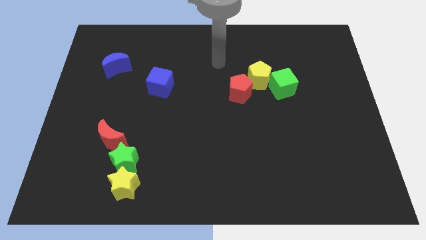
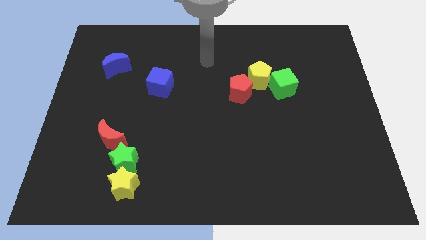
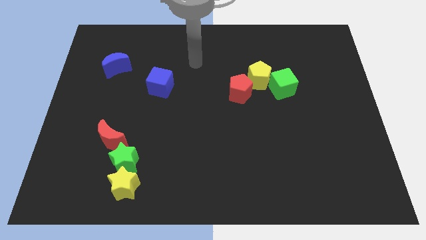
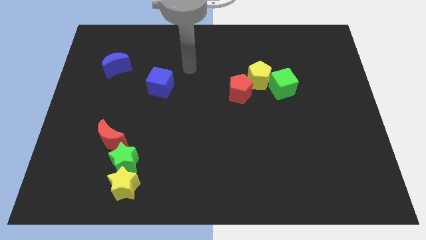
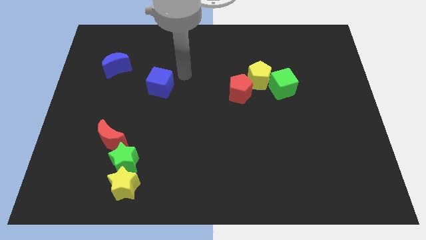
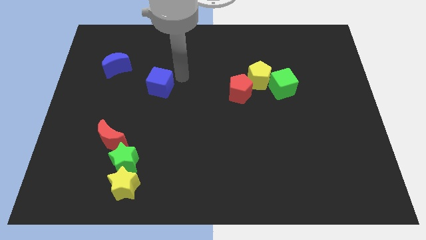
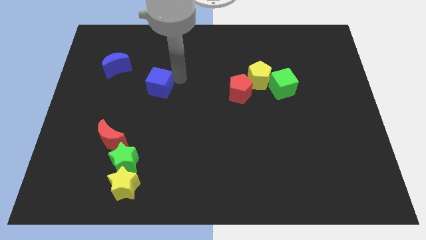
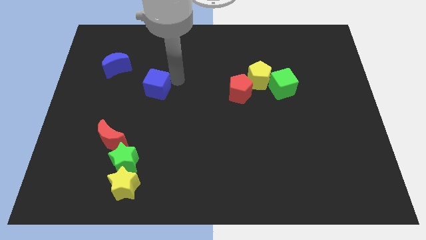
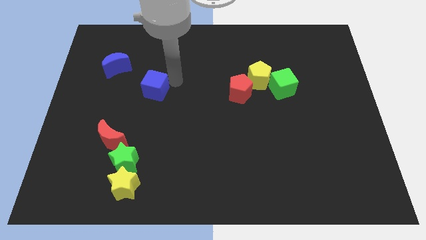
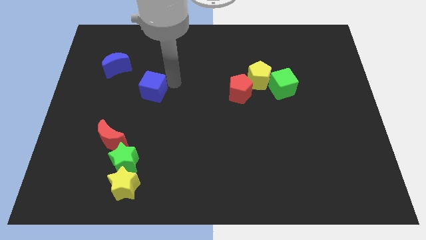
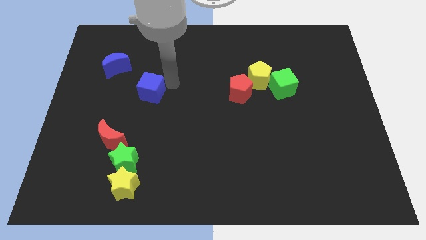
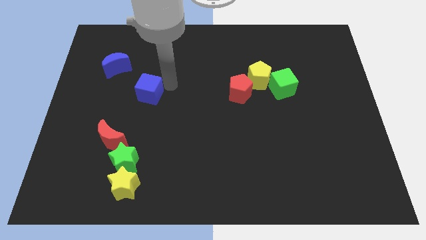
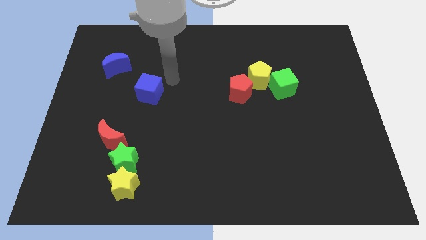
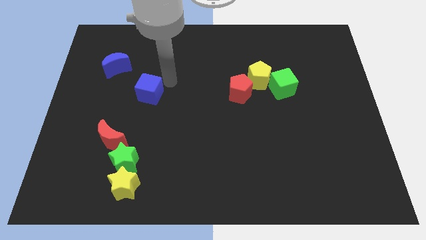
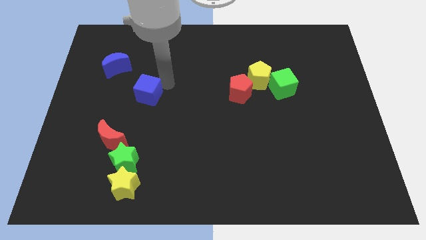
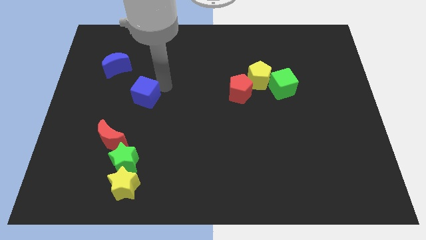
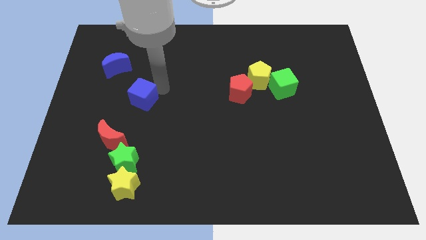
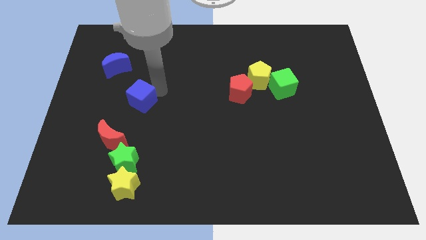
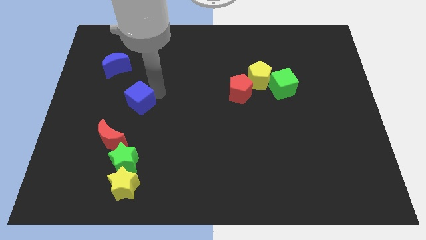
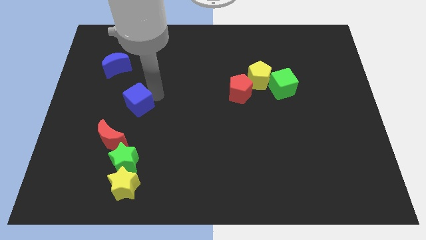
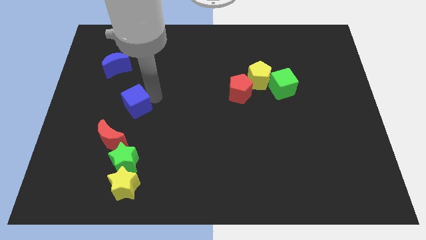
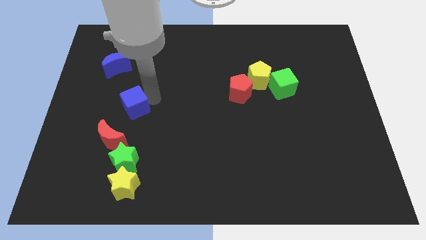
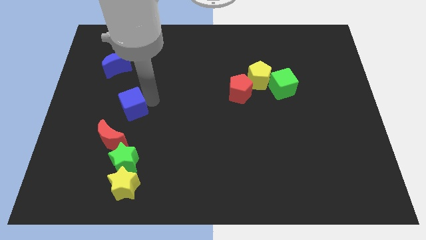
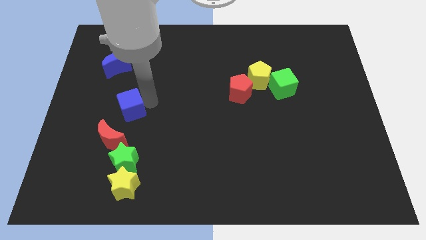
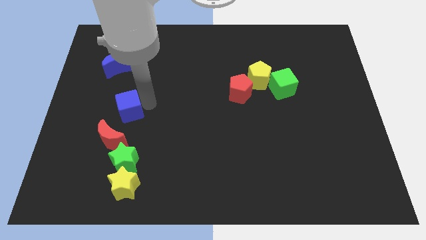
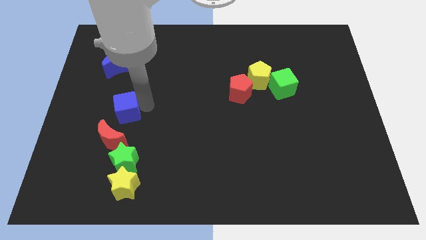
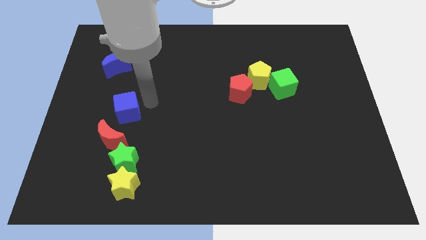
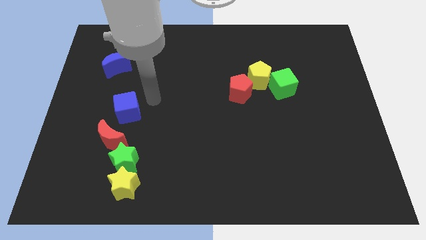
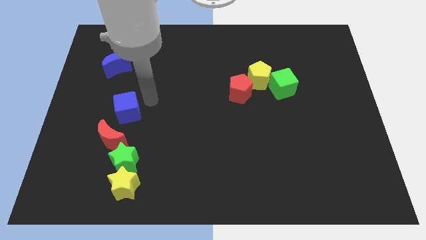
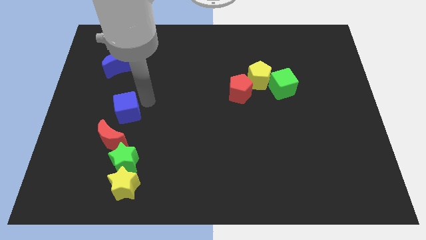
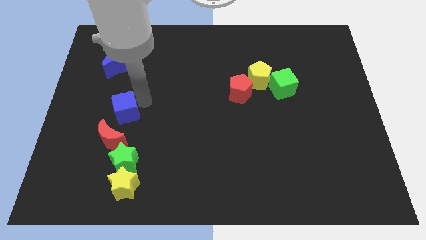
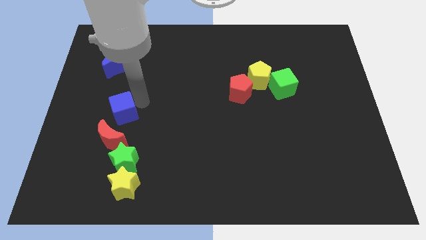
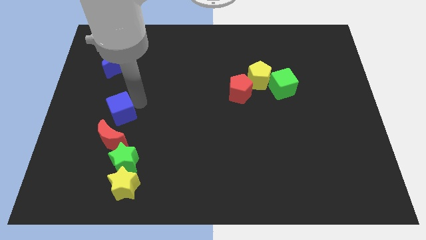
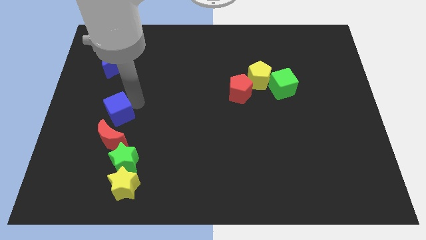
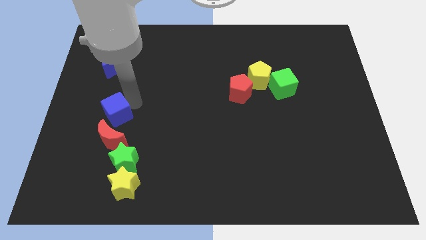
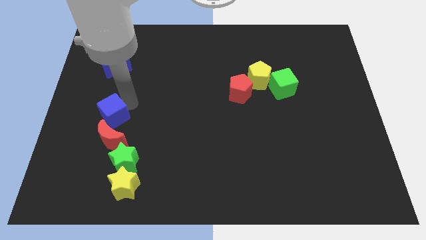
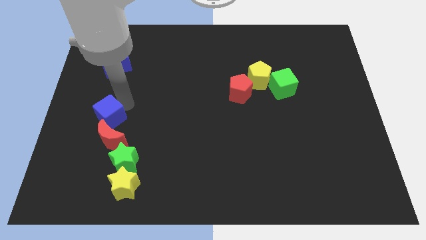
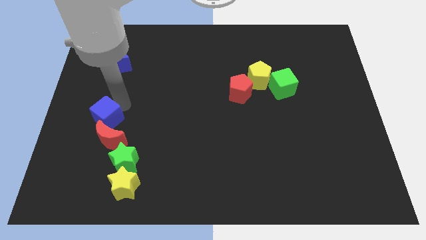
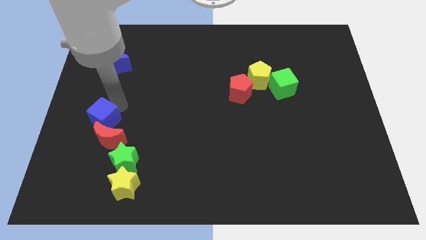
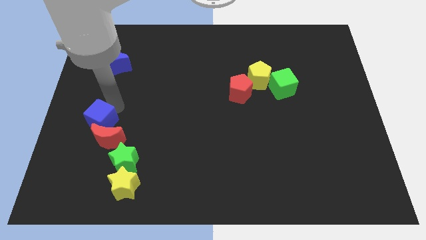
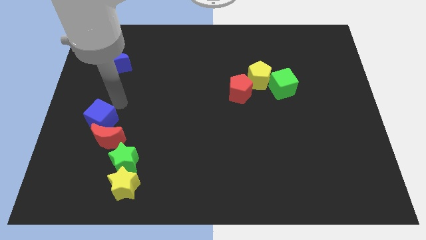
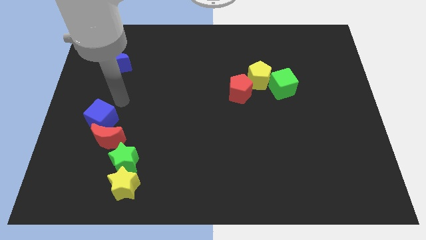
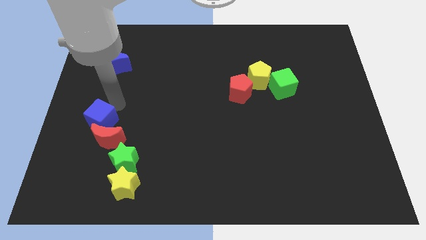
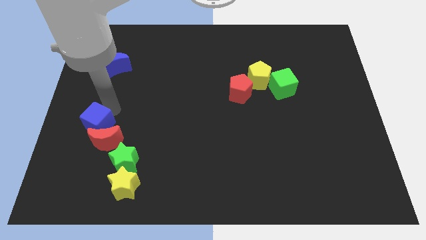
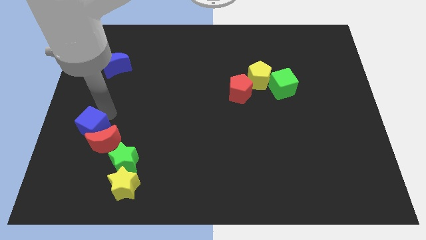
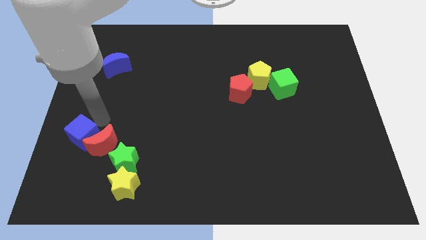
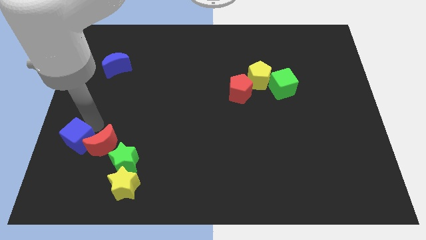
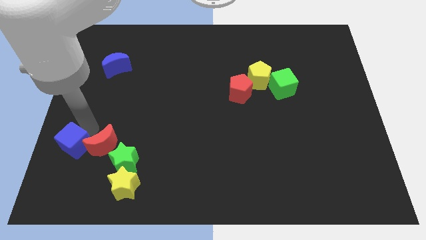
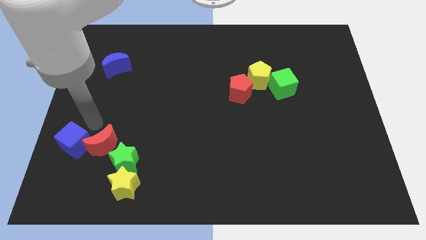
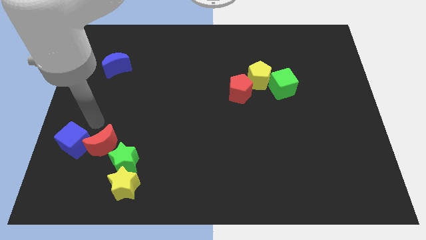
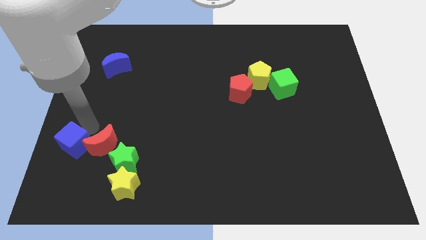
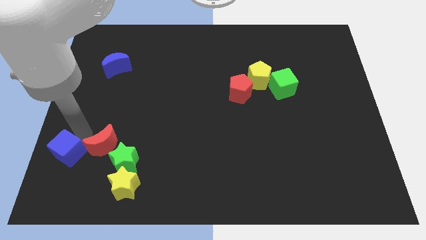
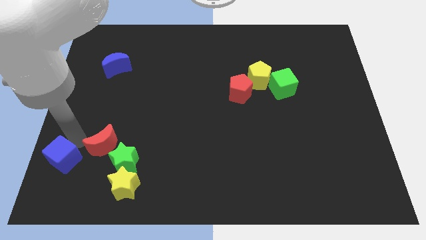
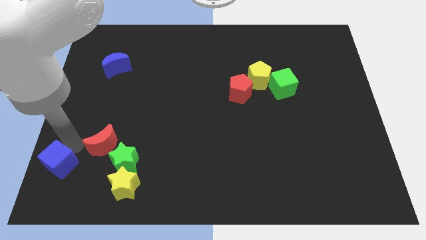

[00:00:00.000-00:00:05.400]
move the blue cube to the lower left corner

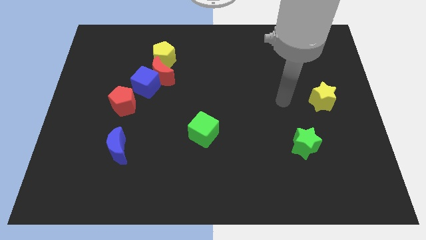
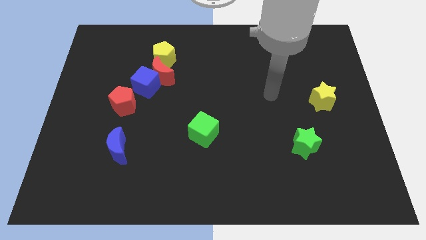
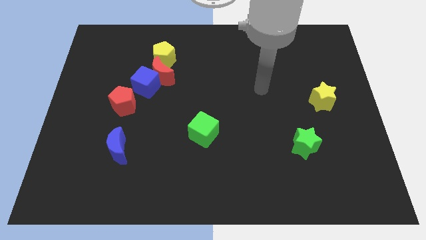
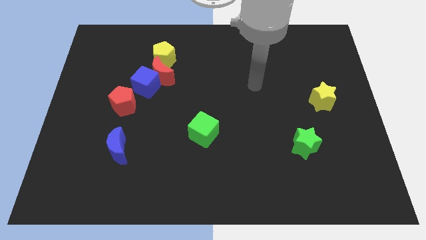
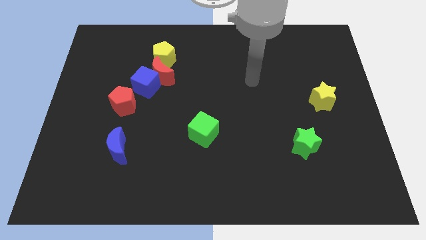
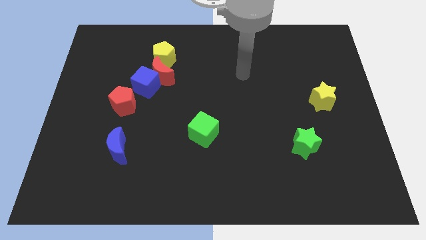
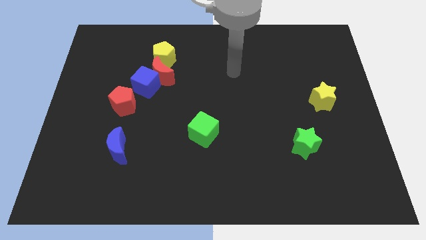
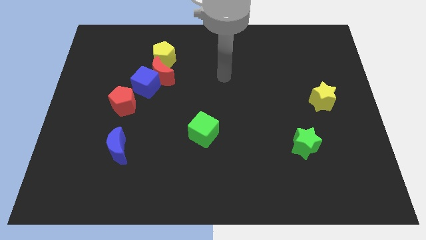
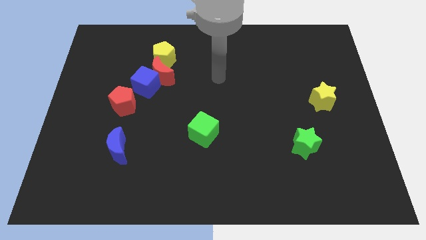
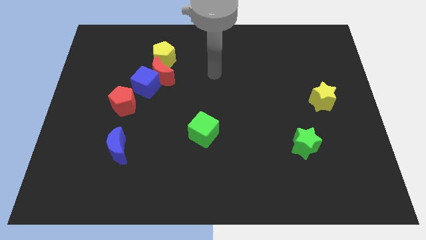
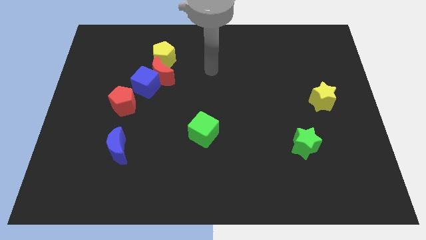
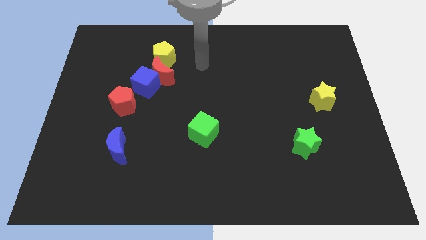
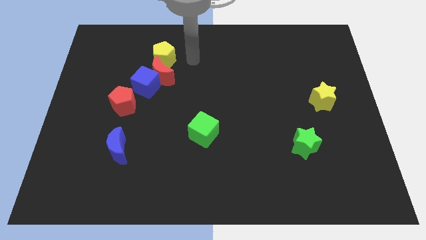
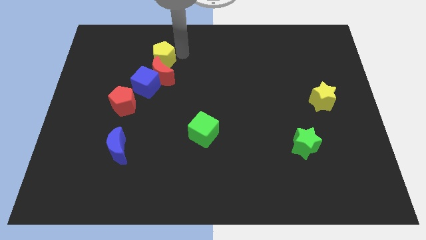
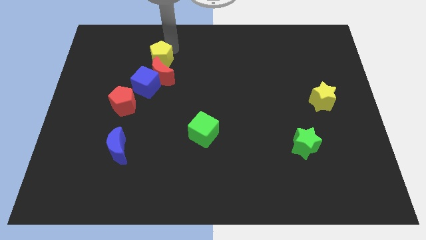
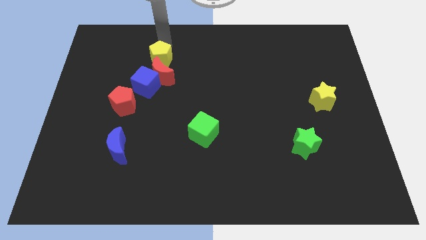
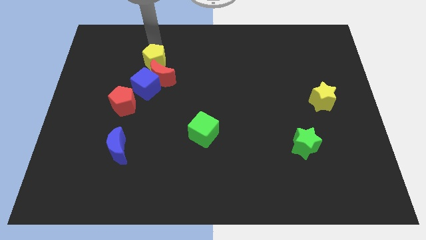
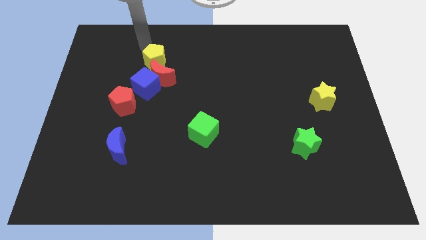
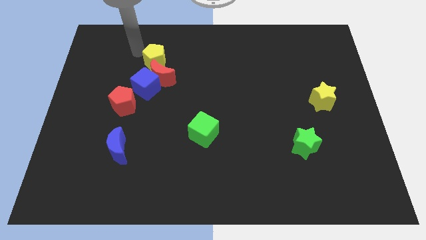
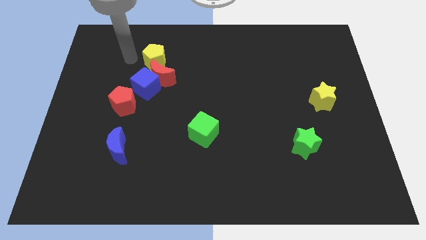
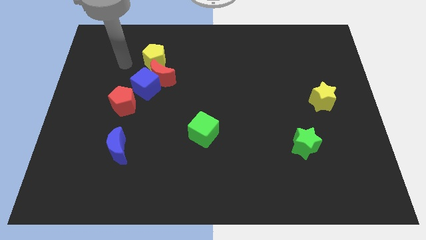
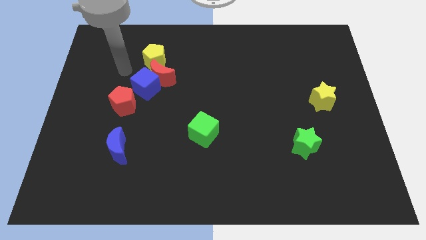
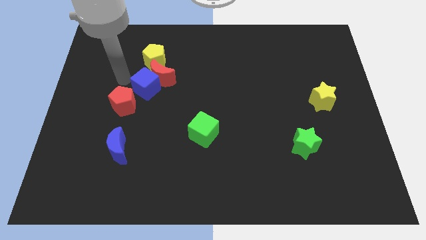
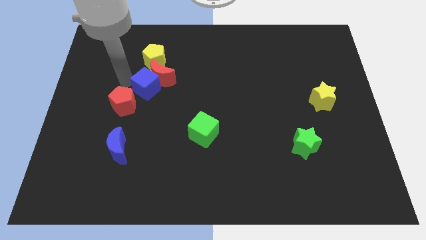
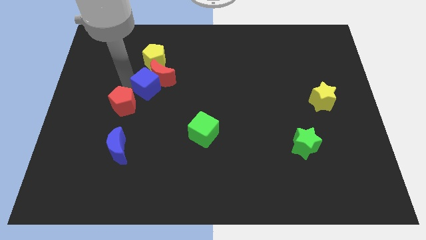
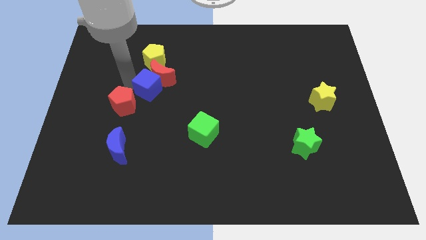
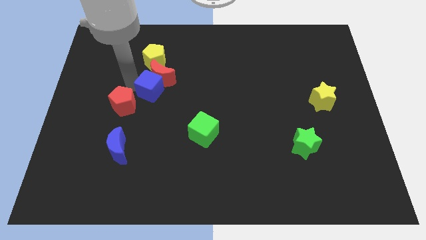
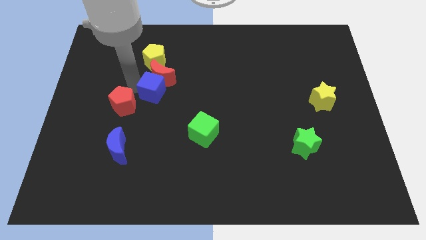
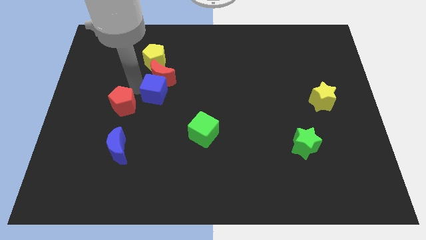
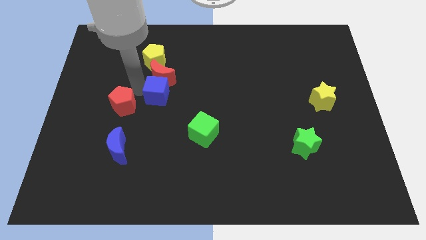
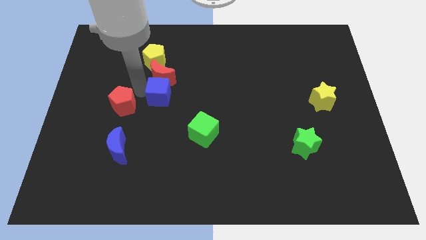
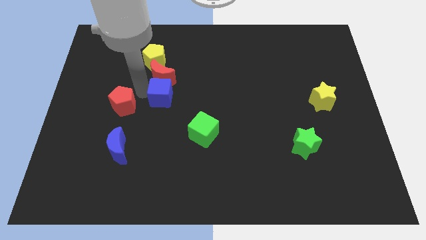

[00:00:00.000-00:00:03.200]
move the blue cube to the middle of the board
